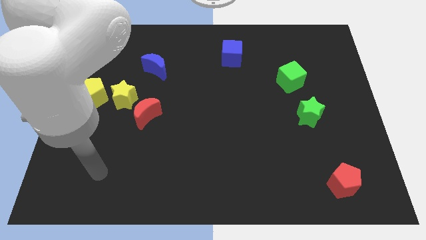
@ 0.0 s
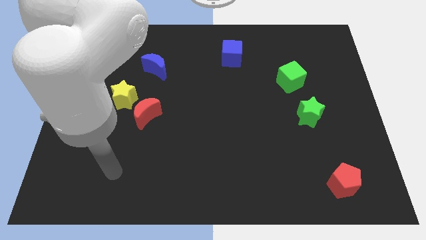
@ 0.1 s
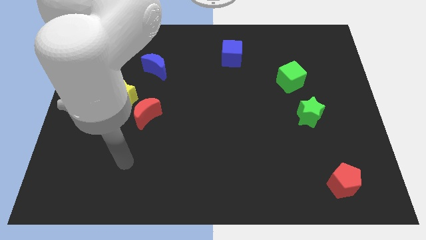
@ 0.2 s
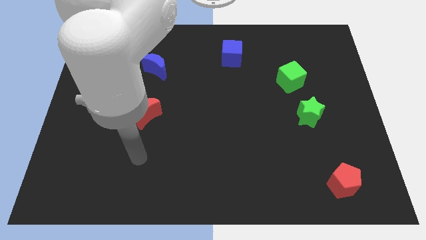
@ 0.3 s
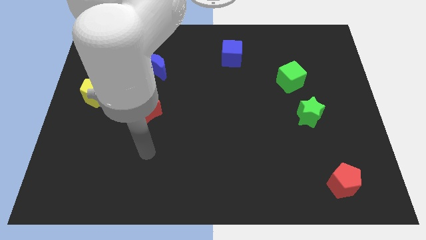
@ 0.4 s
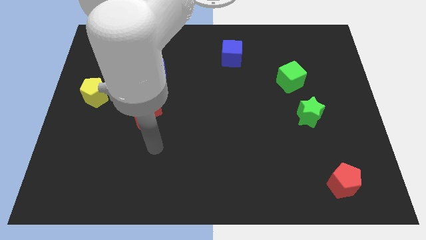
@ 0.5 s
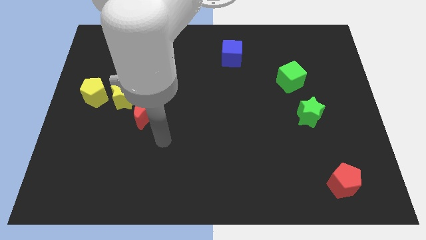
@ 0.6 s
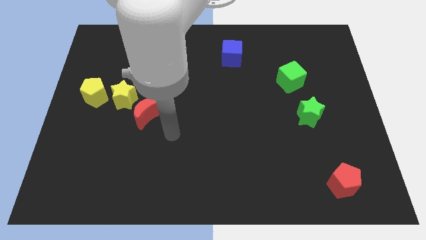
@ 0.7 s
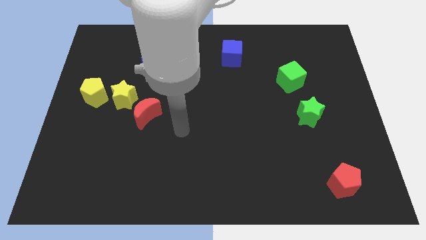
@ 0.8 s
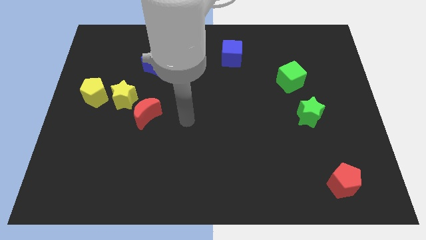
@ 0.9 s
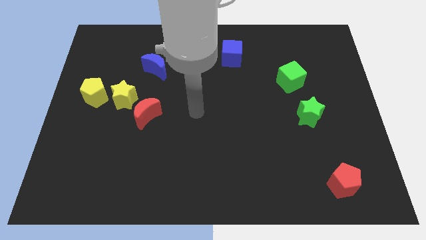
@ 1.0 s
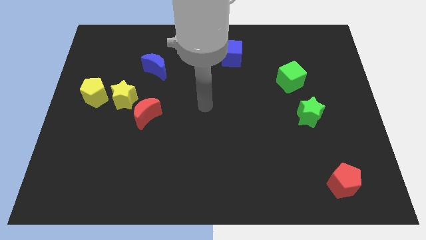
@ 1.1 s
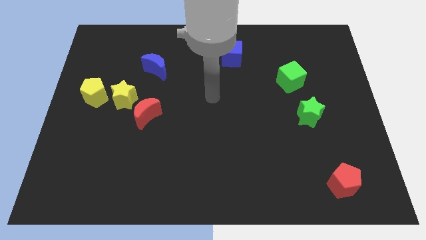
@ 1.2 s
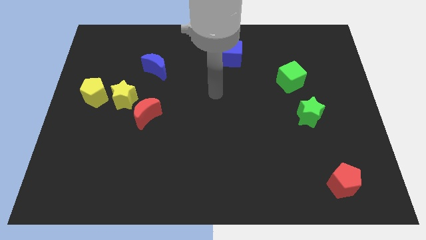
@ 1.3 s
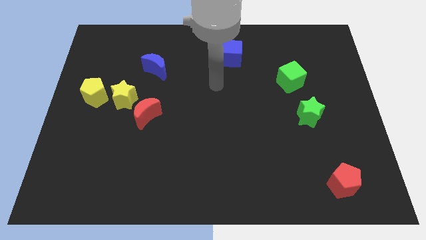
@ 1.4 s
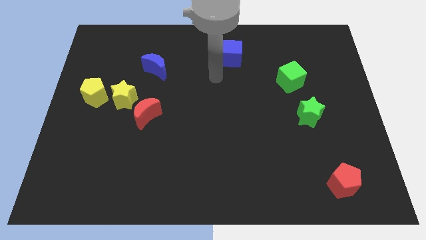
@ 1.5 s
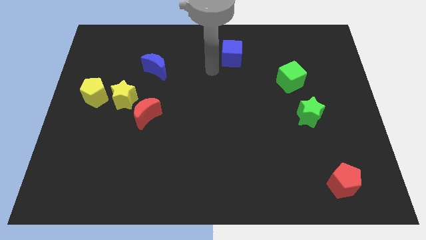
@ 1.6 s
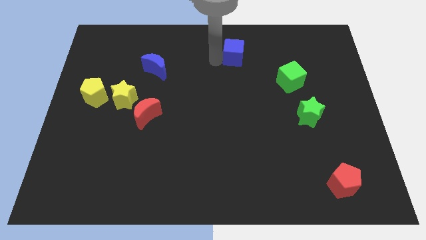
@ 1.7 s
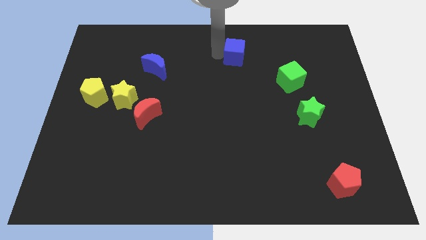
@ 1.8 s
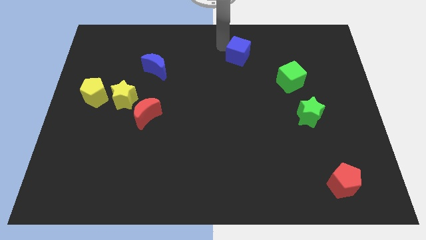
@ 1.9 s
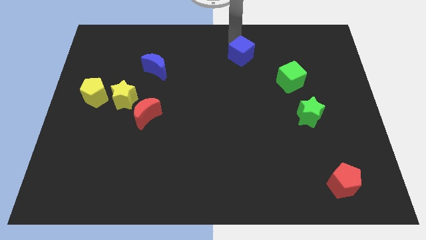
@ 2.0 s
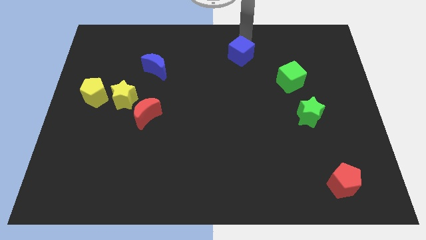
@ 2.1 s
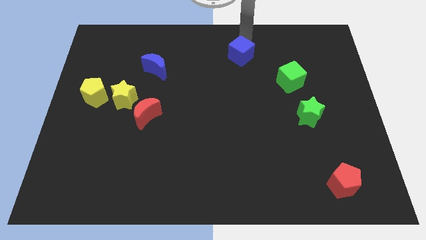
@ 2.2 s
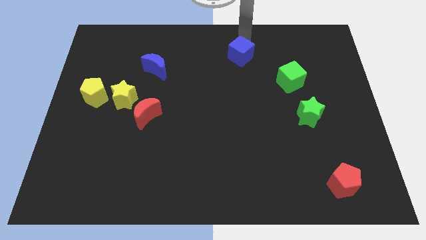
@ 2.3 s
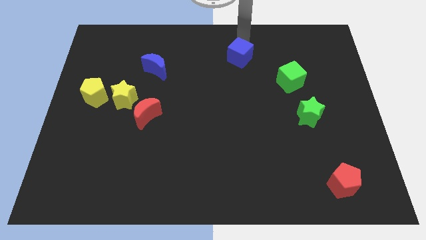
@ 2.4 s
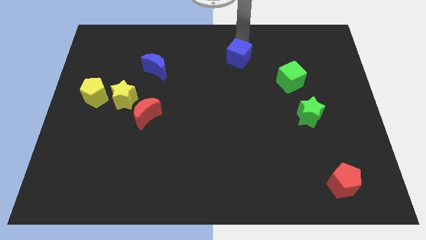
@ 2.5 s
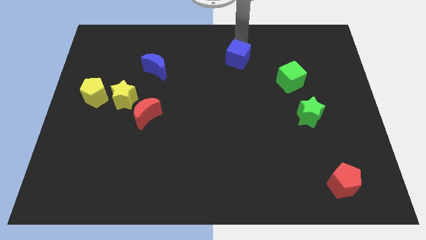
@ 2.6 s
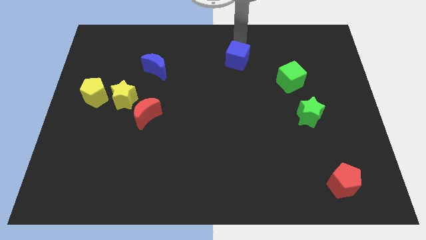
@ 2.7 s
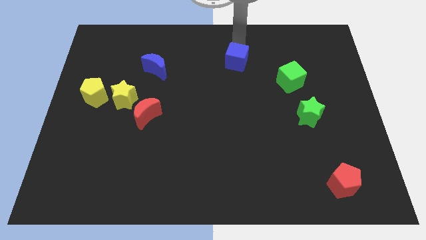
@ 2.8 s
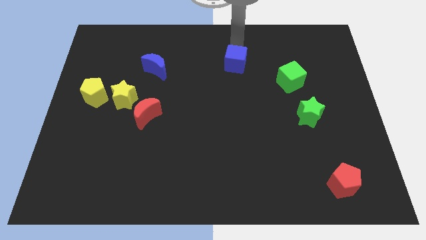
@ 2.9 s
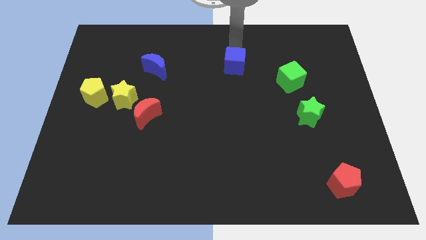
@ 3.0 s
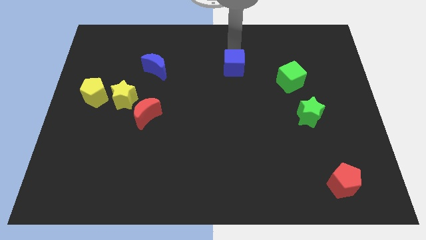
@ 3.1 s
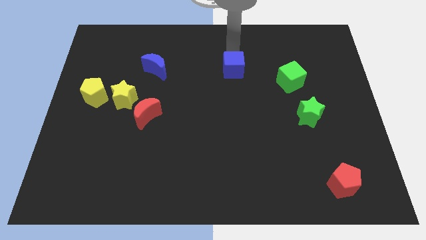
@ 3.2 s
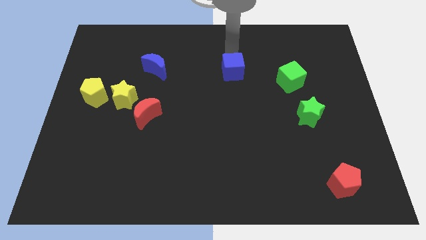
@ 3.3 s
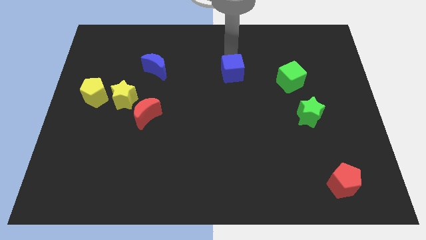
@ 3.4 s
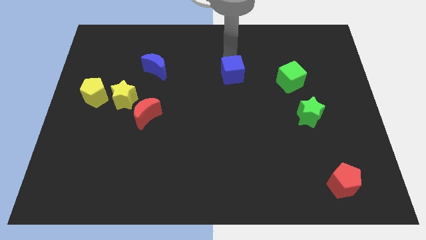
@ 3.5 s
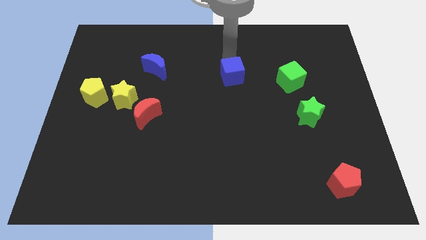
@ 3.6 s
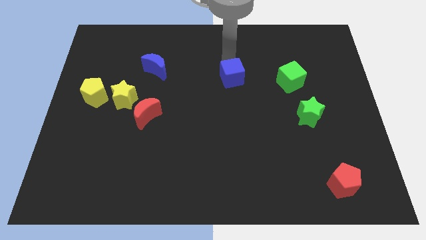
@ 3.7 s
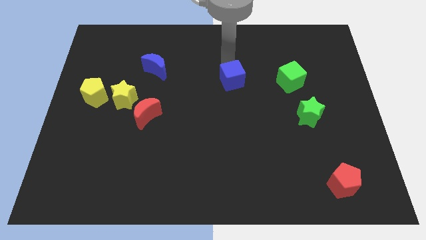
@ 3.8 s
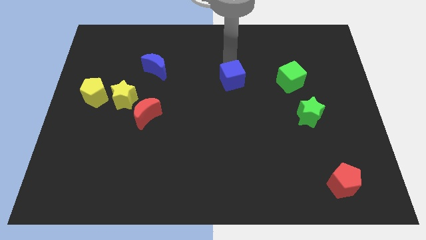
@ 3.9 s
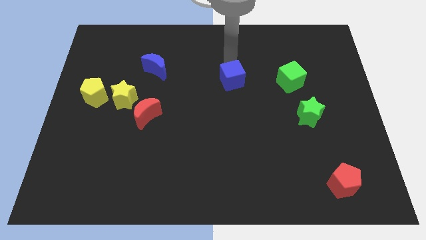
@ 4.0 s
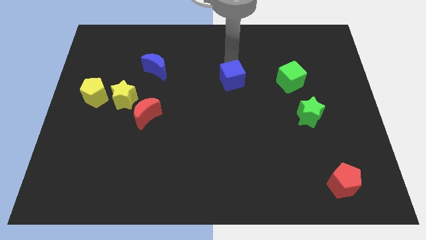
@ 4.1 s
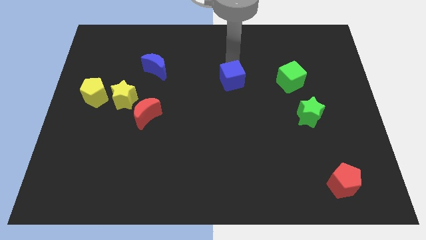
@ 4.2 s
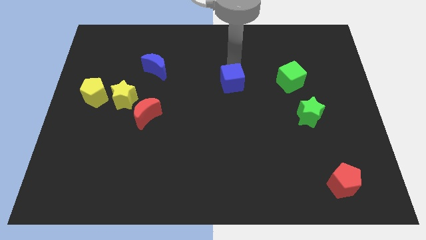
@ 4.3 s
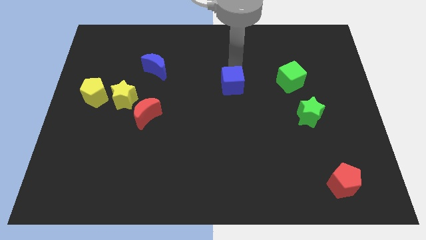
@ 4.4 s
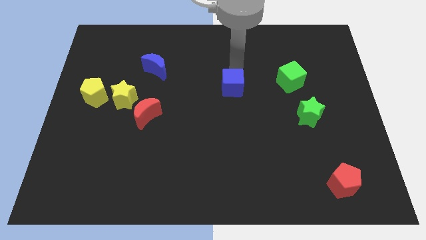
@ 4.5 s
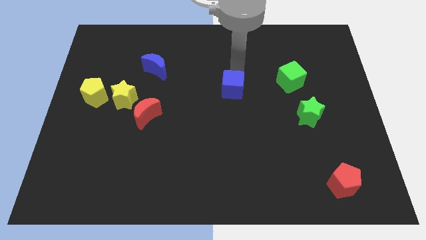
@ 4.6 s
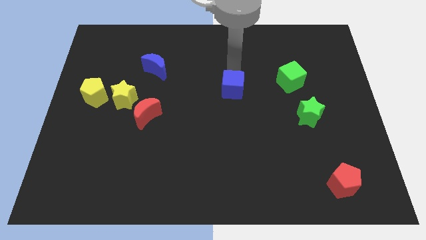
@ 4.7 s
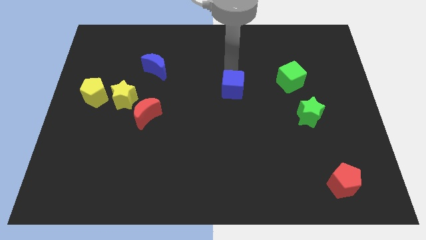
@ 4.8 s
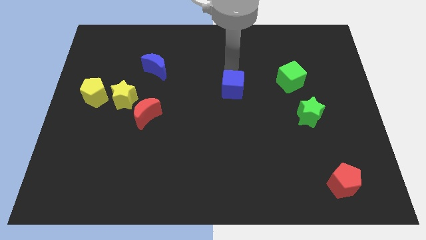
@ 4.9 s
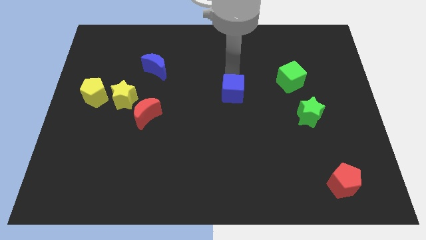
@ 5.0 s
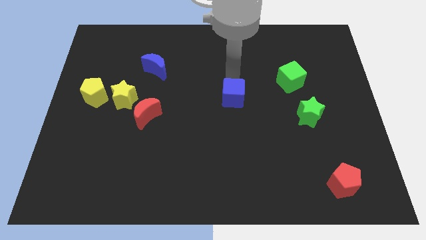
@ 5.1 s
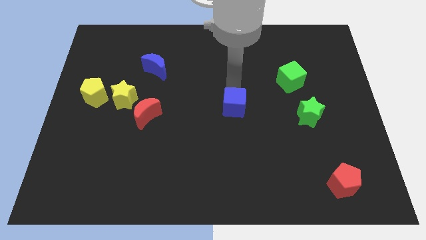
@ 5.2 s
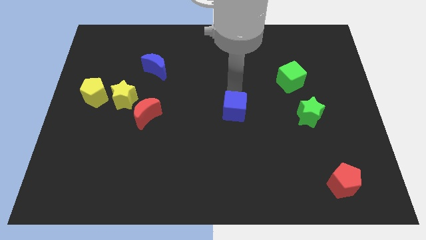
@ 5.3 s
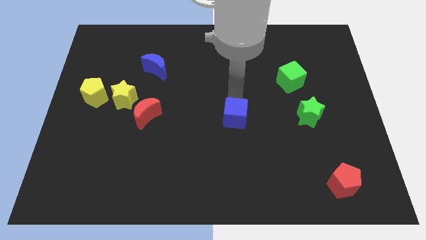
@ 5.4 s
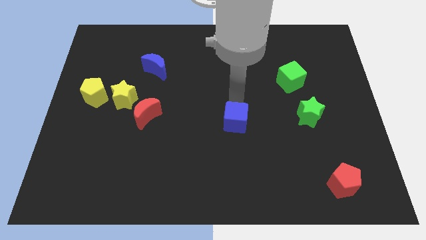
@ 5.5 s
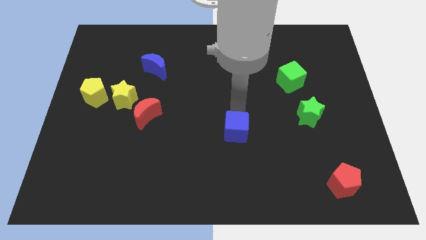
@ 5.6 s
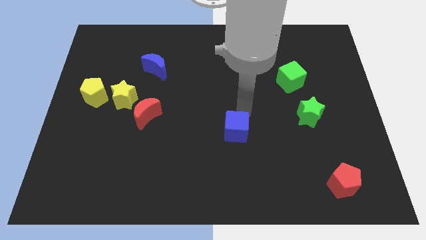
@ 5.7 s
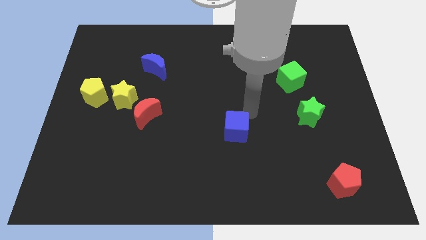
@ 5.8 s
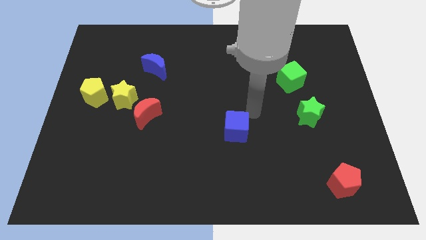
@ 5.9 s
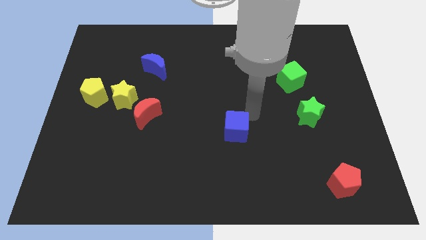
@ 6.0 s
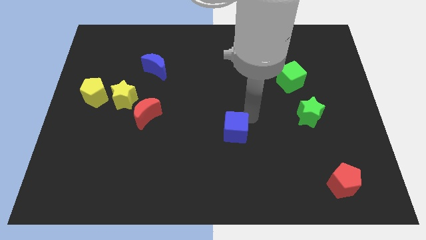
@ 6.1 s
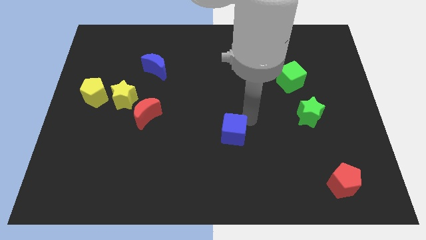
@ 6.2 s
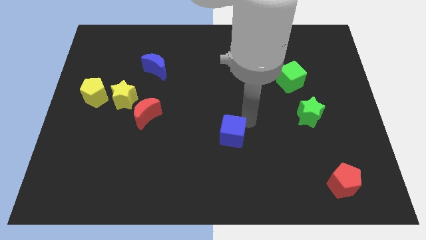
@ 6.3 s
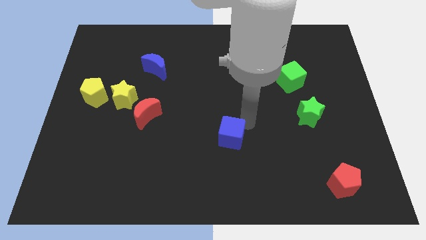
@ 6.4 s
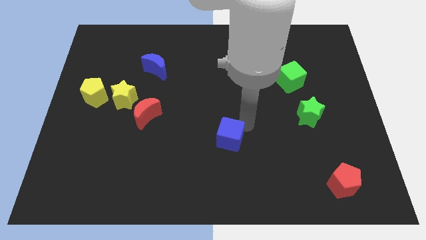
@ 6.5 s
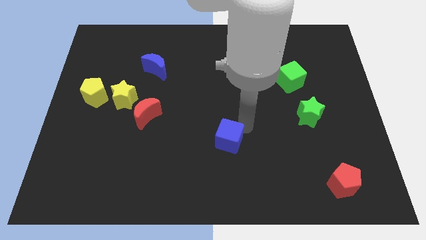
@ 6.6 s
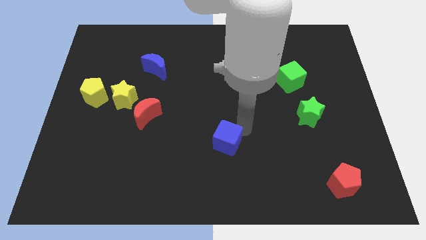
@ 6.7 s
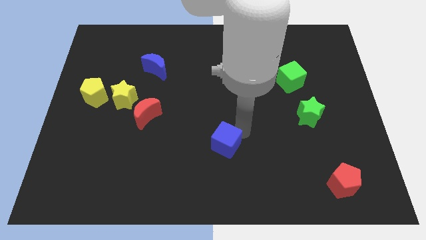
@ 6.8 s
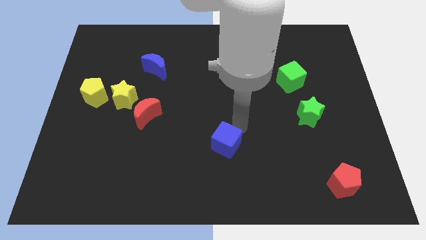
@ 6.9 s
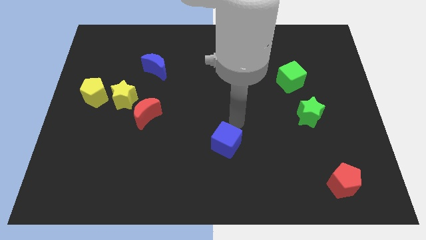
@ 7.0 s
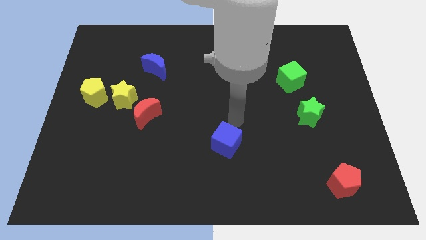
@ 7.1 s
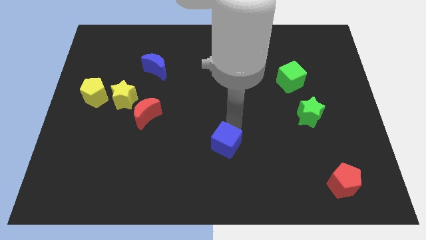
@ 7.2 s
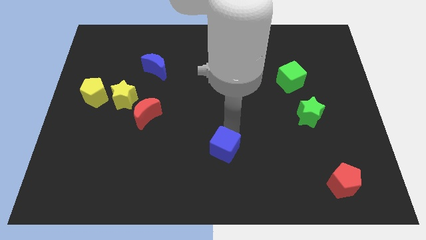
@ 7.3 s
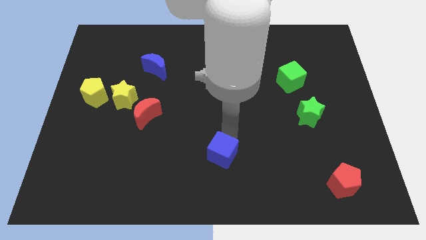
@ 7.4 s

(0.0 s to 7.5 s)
move the blue cube to the bottom side
